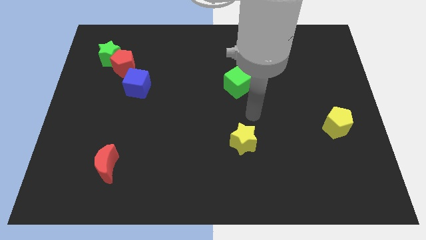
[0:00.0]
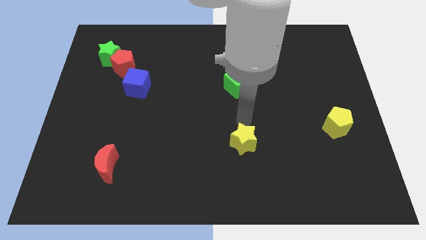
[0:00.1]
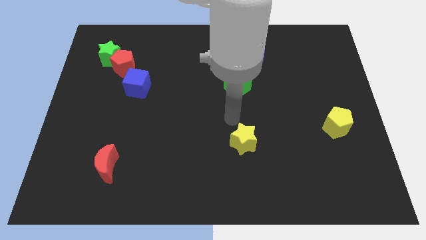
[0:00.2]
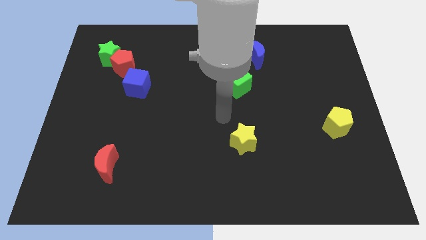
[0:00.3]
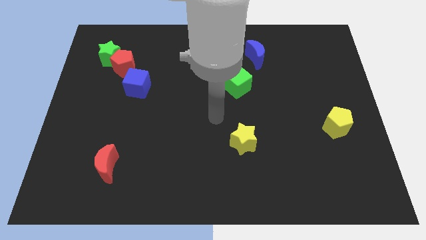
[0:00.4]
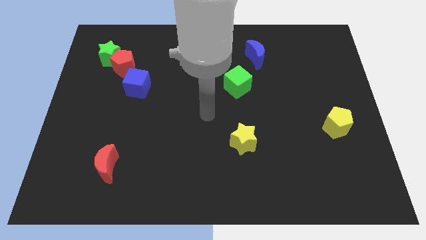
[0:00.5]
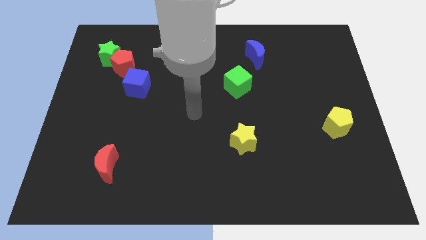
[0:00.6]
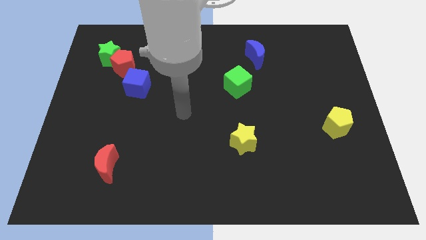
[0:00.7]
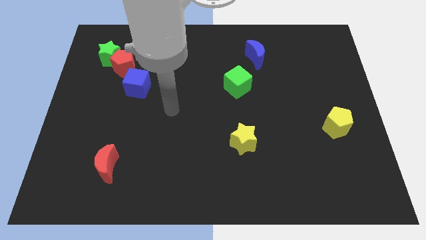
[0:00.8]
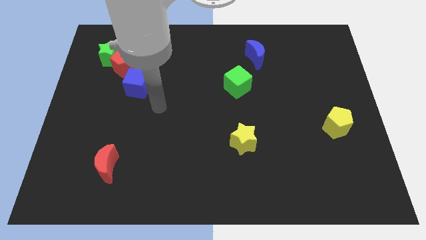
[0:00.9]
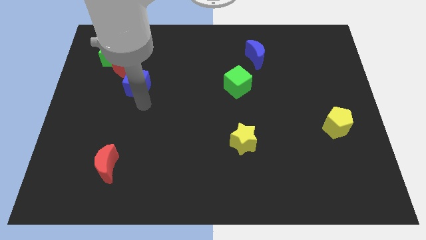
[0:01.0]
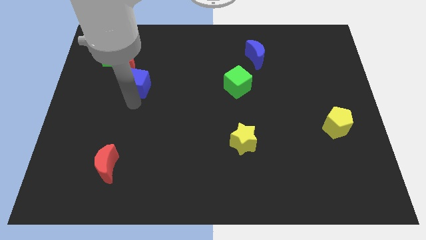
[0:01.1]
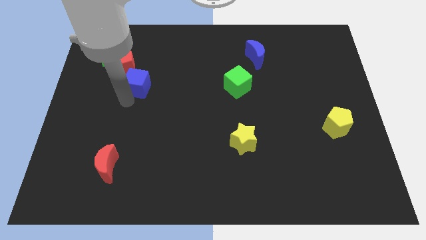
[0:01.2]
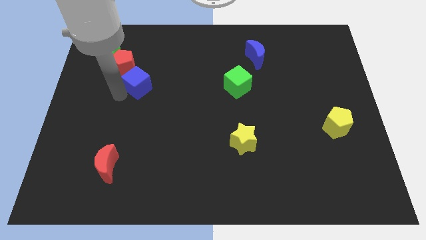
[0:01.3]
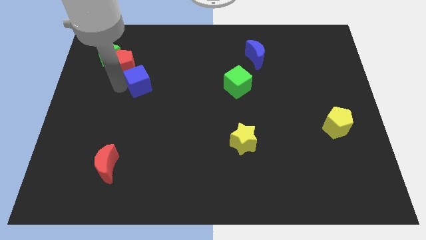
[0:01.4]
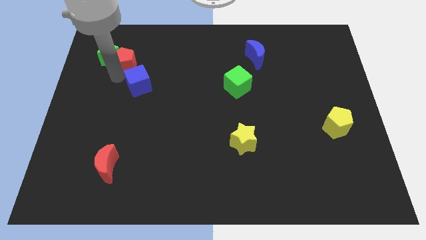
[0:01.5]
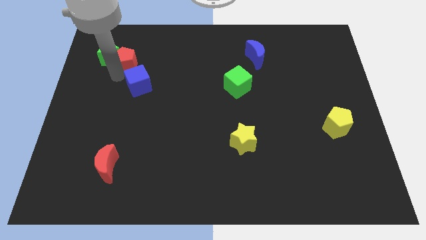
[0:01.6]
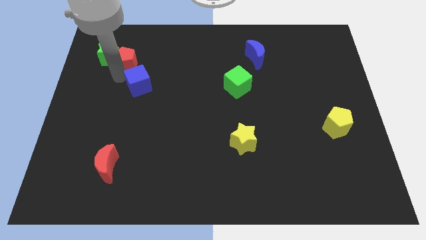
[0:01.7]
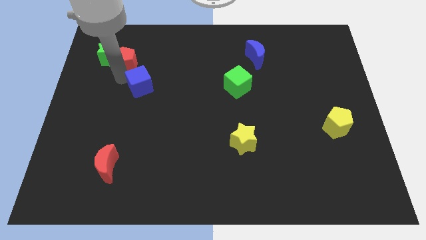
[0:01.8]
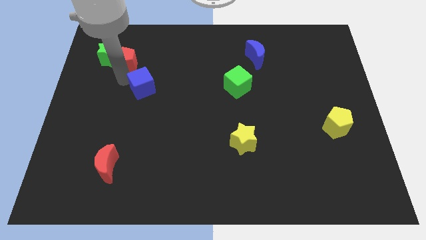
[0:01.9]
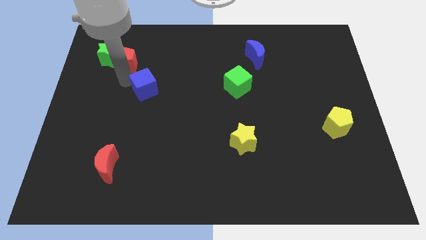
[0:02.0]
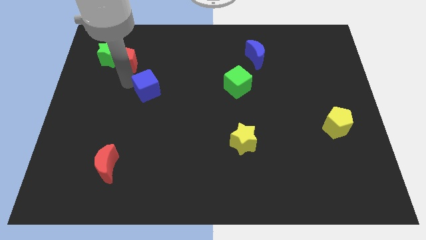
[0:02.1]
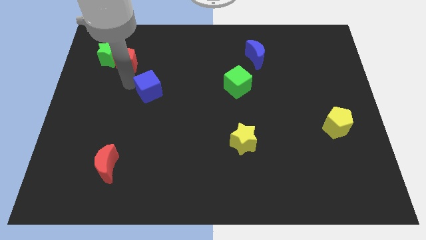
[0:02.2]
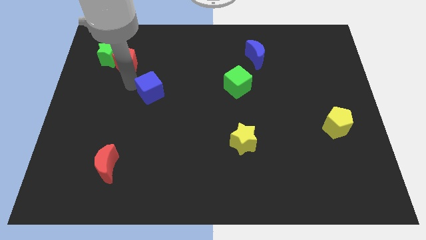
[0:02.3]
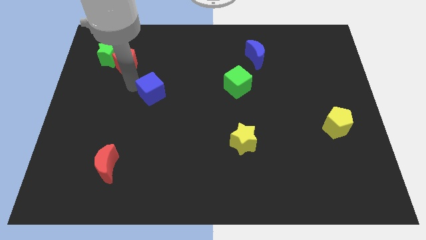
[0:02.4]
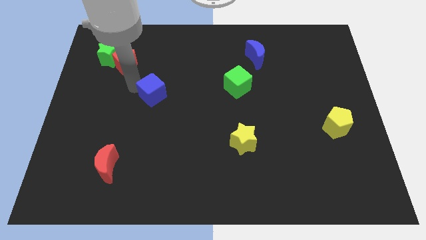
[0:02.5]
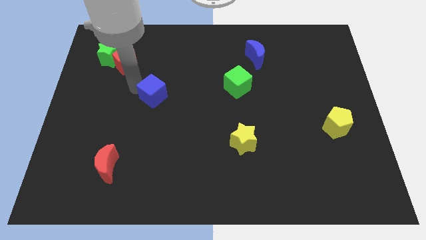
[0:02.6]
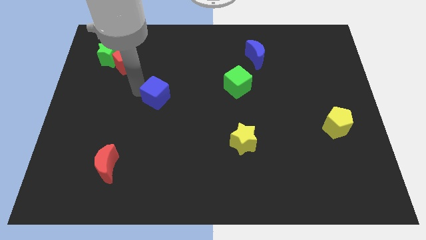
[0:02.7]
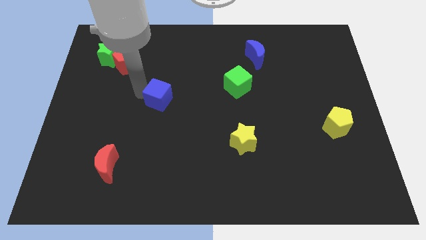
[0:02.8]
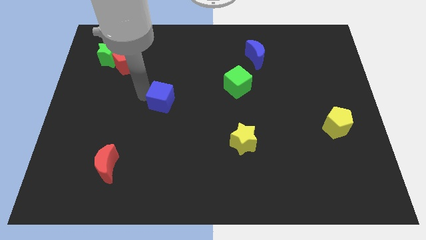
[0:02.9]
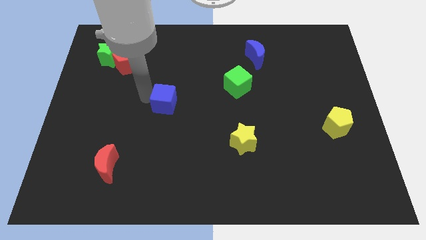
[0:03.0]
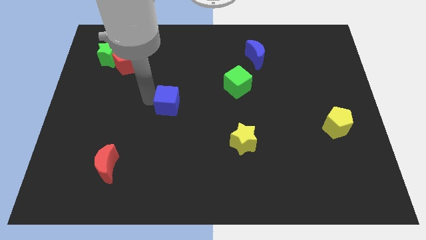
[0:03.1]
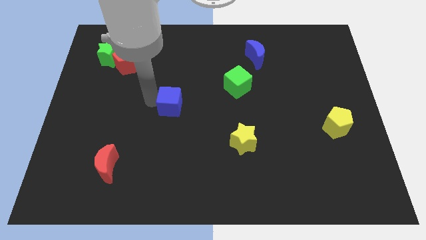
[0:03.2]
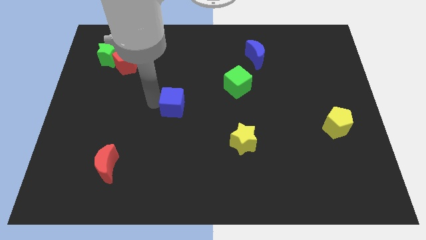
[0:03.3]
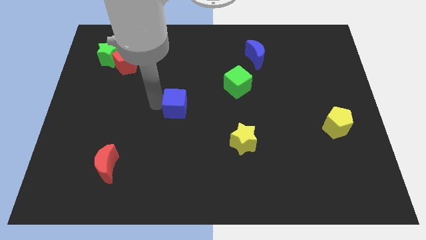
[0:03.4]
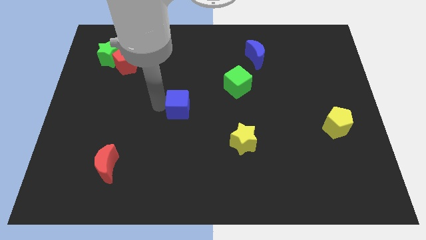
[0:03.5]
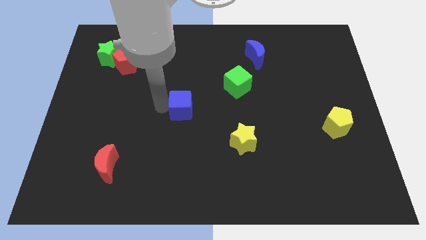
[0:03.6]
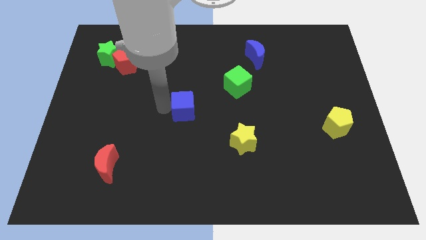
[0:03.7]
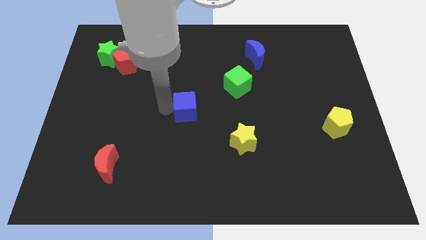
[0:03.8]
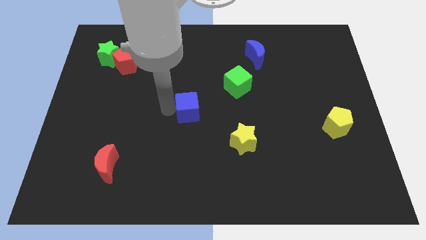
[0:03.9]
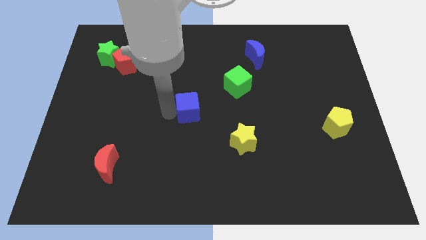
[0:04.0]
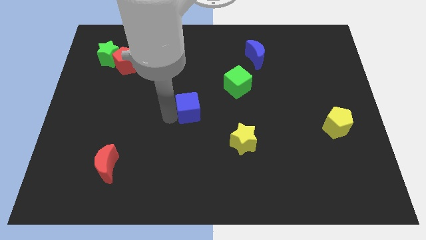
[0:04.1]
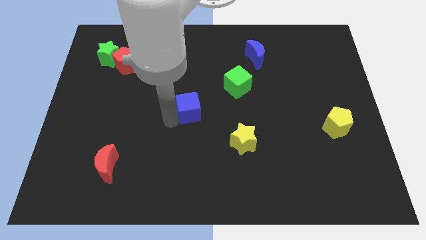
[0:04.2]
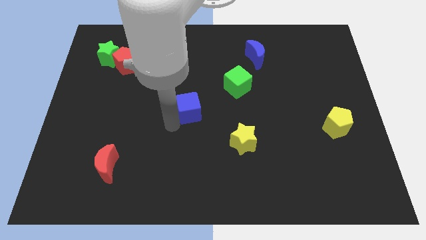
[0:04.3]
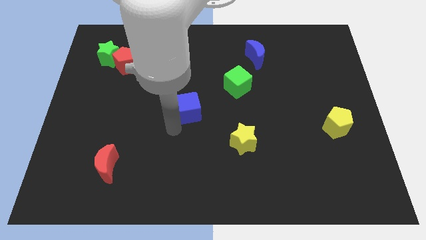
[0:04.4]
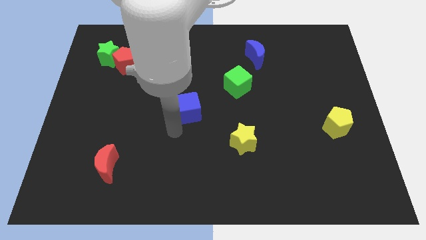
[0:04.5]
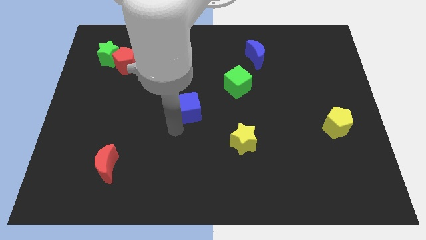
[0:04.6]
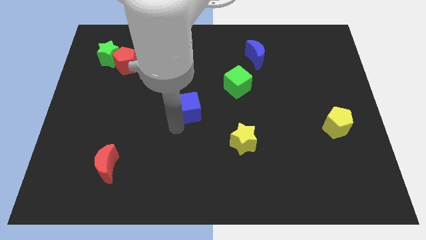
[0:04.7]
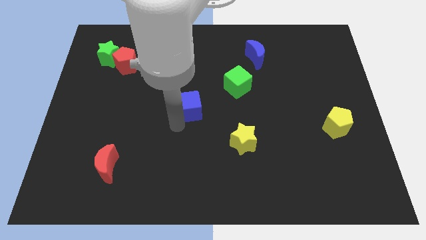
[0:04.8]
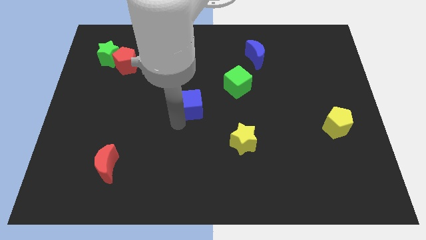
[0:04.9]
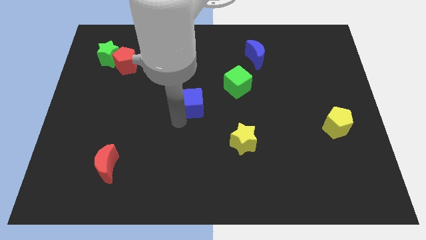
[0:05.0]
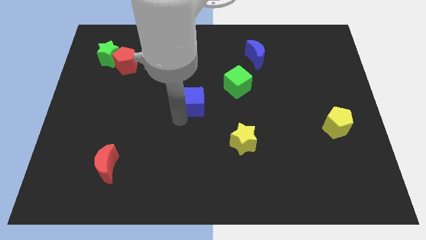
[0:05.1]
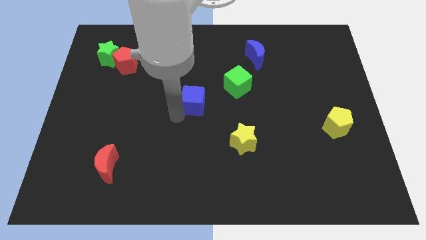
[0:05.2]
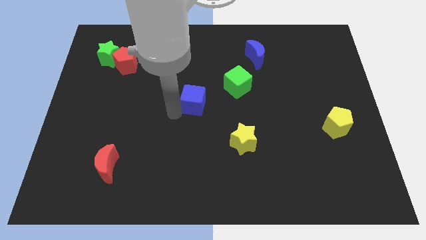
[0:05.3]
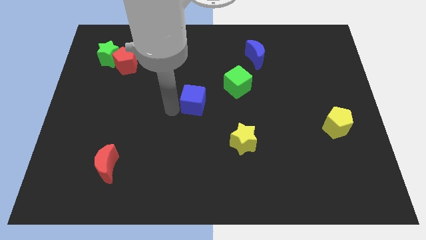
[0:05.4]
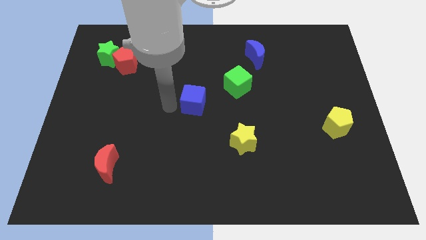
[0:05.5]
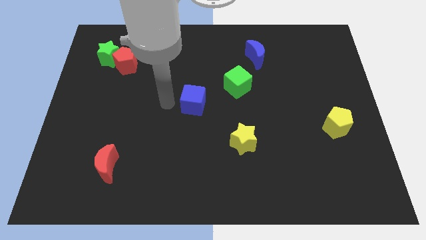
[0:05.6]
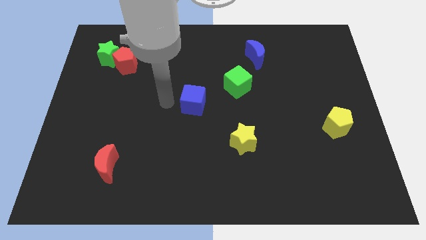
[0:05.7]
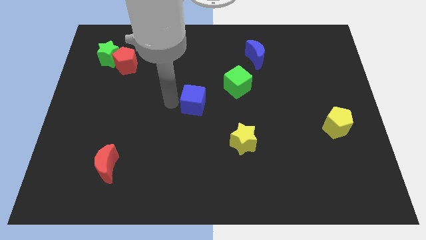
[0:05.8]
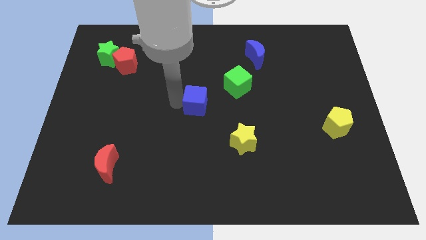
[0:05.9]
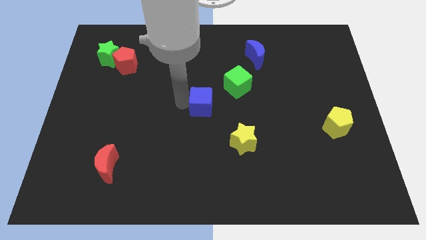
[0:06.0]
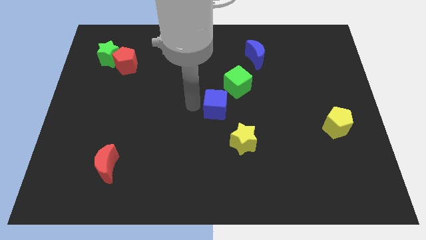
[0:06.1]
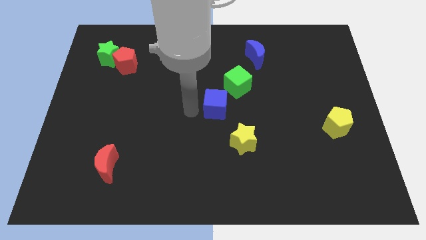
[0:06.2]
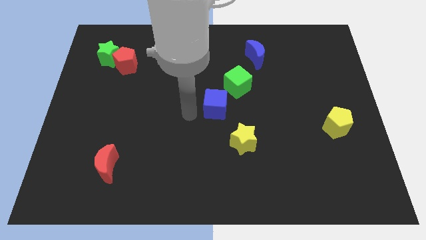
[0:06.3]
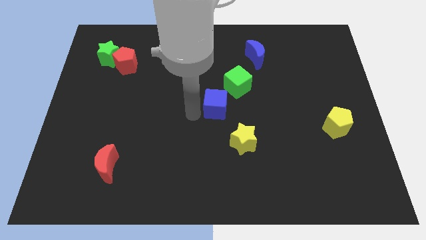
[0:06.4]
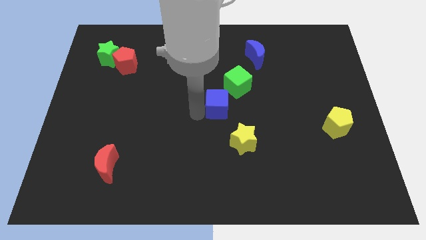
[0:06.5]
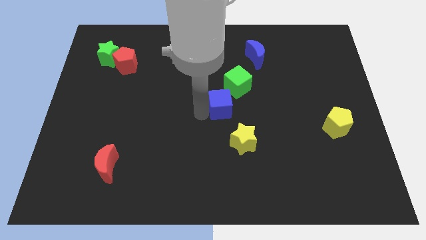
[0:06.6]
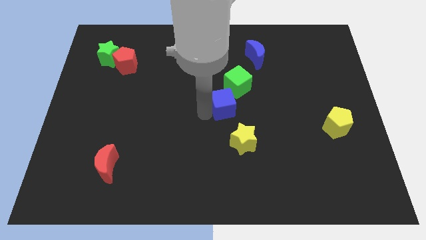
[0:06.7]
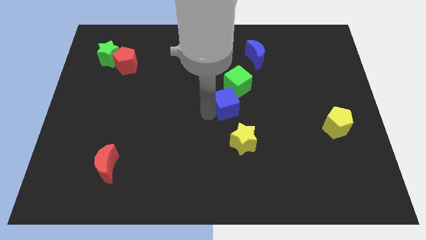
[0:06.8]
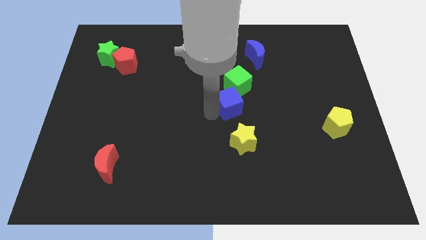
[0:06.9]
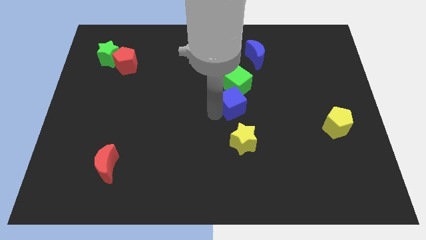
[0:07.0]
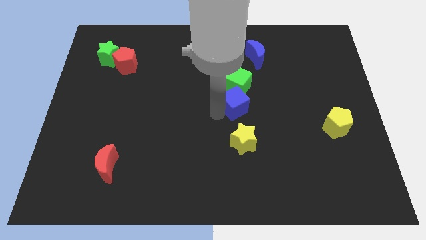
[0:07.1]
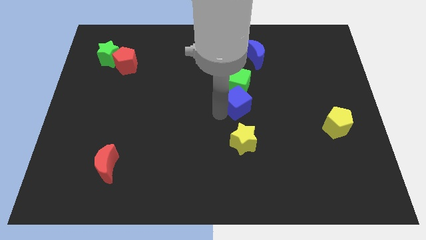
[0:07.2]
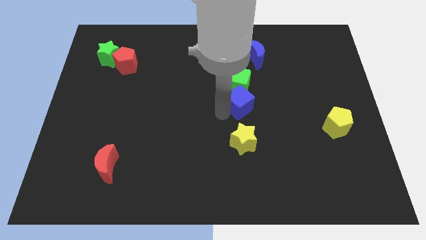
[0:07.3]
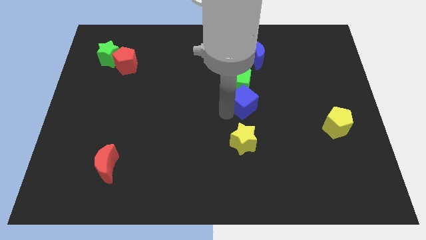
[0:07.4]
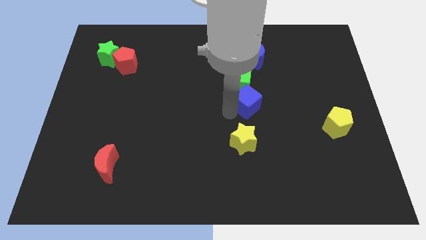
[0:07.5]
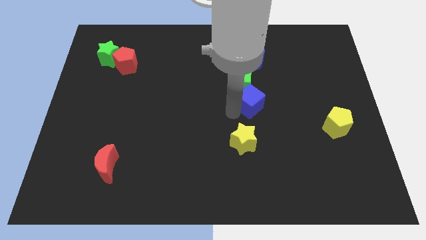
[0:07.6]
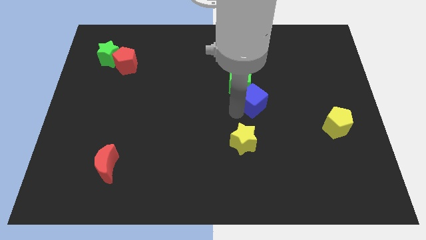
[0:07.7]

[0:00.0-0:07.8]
slide the blue cube to the bottom side of the blue moon
